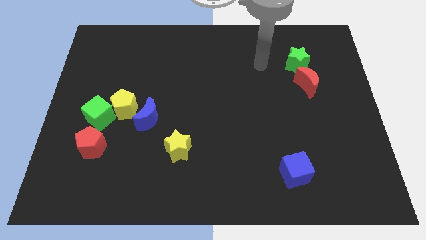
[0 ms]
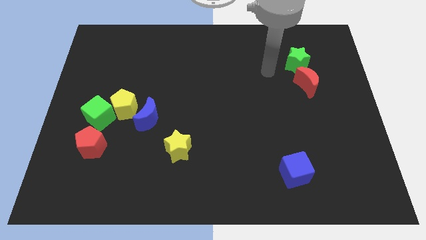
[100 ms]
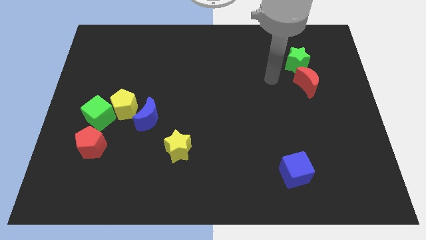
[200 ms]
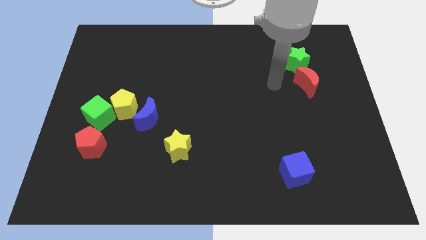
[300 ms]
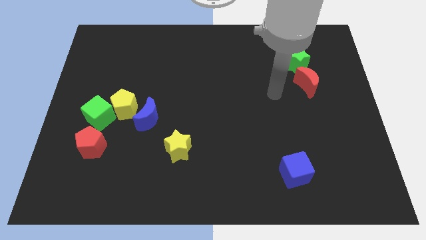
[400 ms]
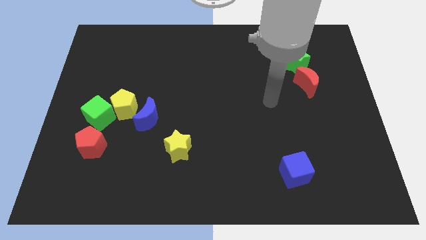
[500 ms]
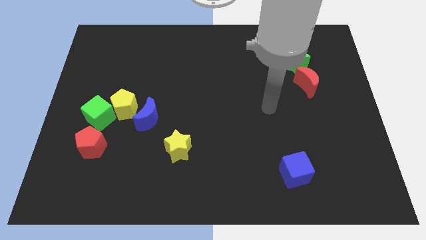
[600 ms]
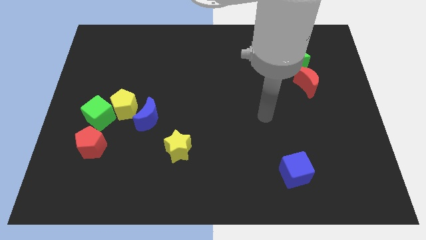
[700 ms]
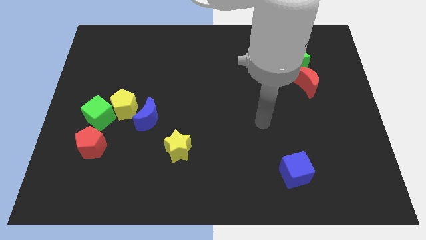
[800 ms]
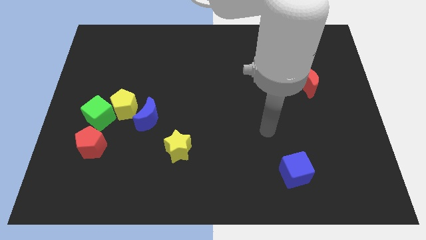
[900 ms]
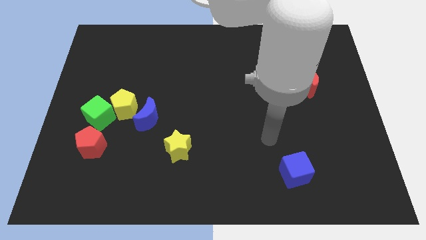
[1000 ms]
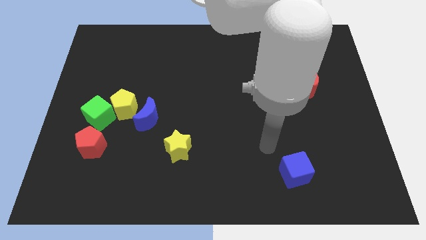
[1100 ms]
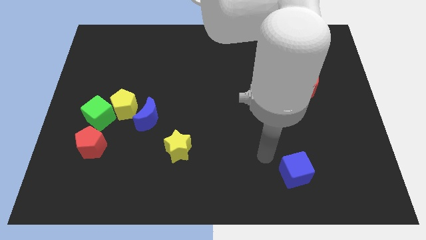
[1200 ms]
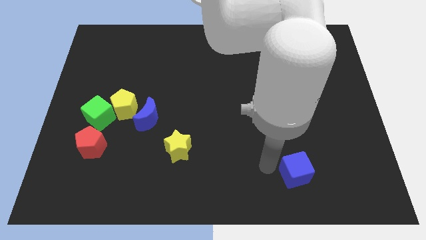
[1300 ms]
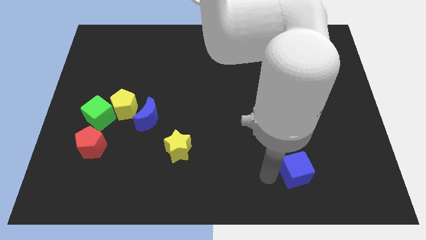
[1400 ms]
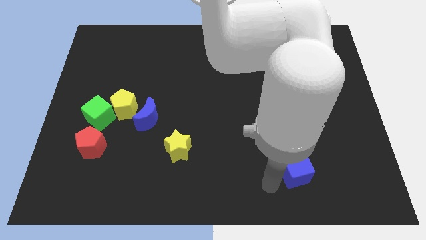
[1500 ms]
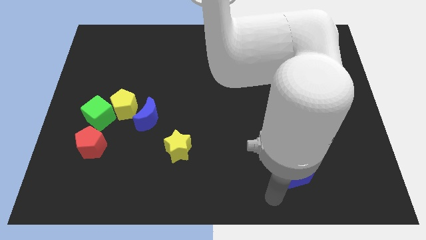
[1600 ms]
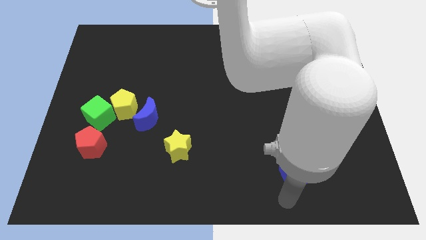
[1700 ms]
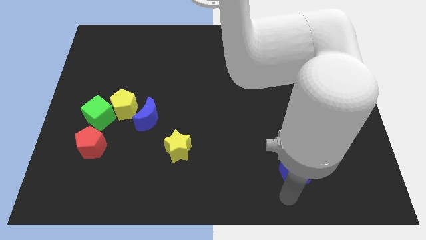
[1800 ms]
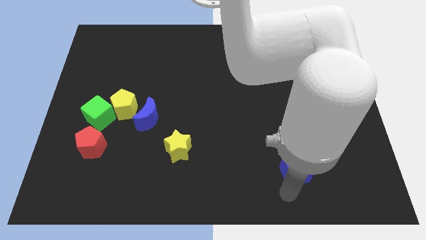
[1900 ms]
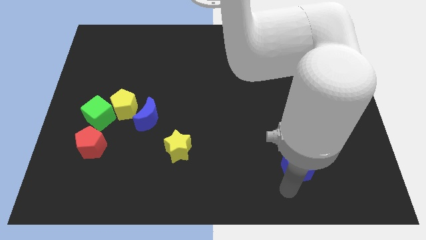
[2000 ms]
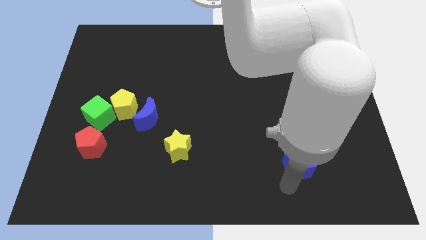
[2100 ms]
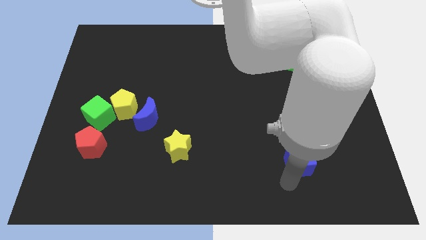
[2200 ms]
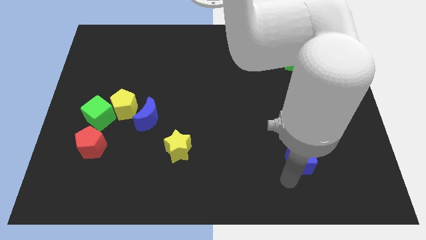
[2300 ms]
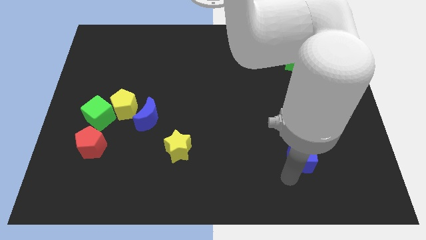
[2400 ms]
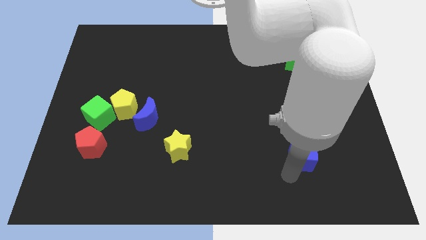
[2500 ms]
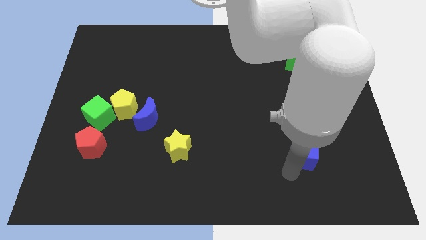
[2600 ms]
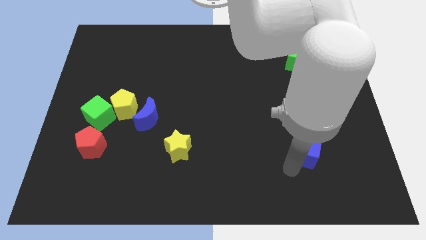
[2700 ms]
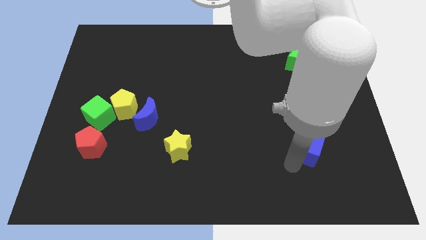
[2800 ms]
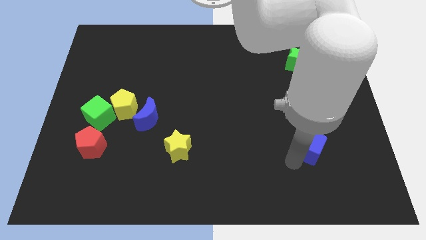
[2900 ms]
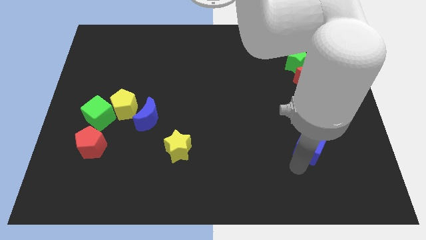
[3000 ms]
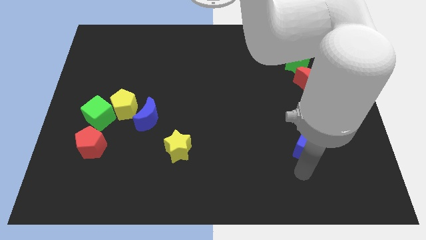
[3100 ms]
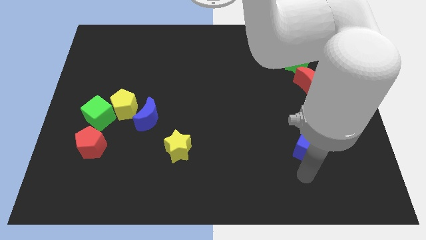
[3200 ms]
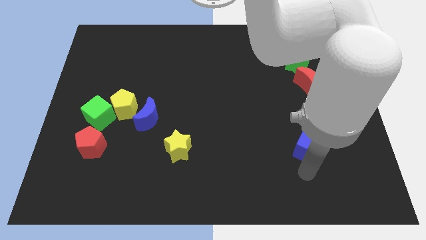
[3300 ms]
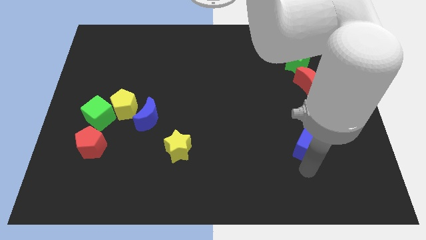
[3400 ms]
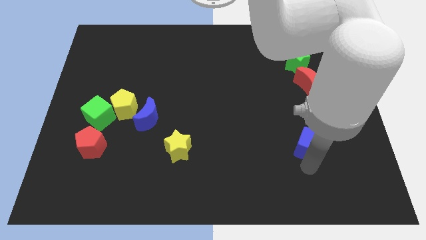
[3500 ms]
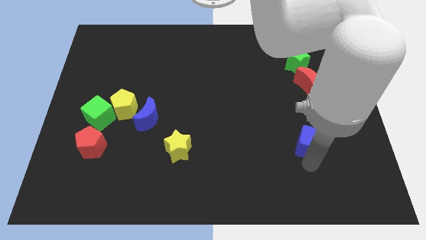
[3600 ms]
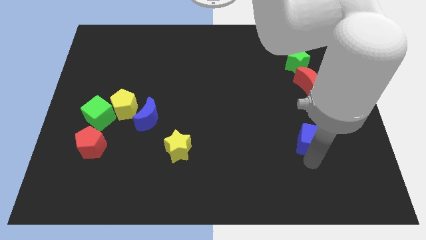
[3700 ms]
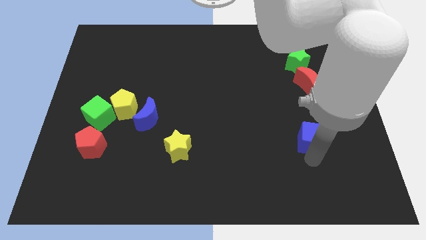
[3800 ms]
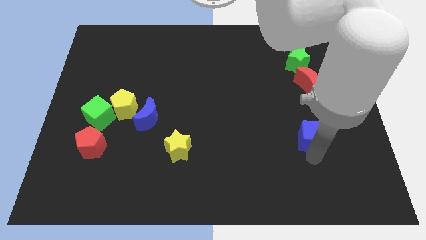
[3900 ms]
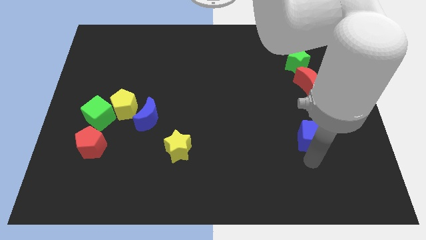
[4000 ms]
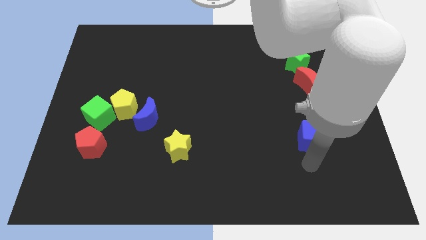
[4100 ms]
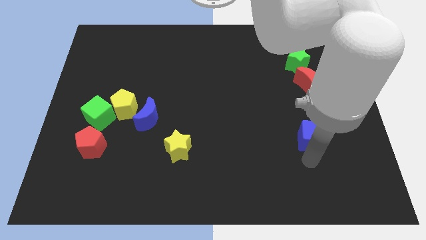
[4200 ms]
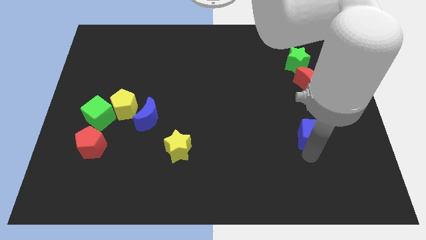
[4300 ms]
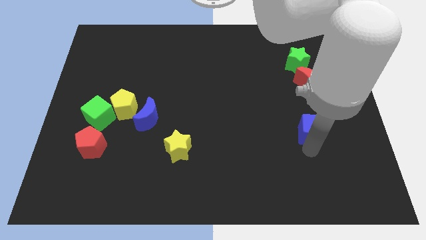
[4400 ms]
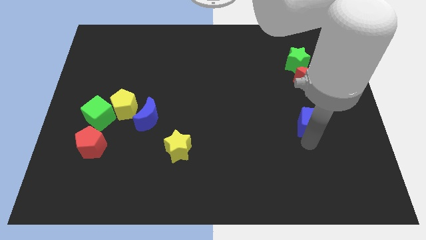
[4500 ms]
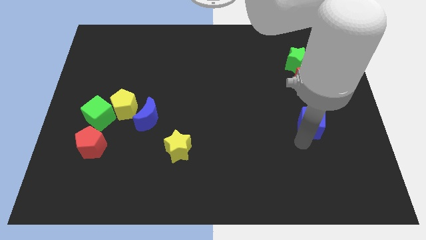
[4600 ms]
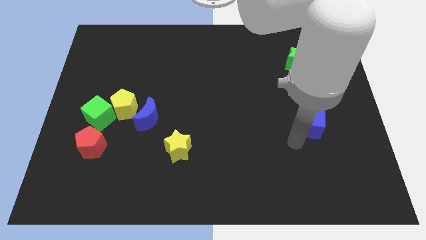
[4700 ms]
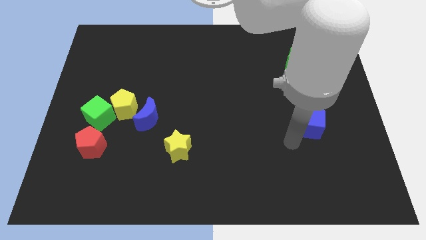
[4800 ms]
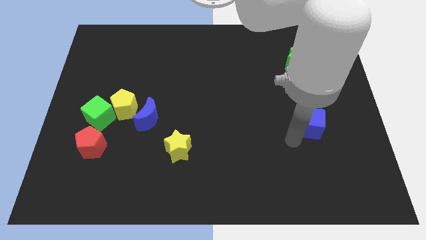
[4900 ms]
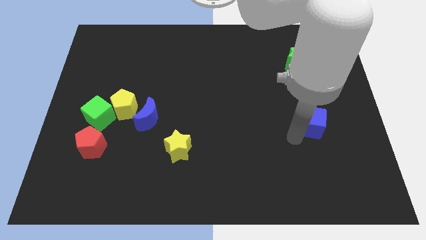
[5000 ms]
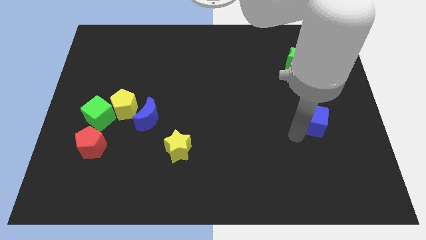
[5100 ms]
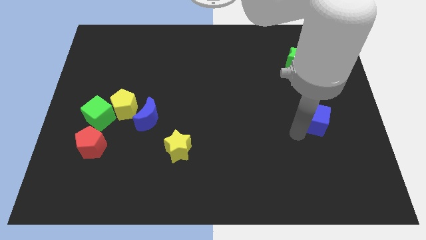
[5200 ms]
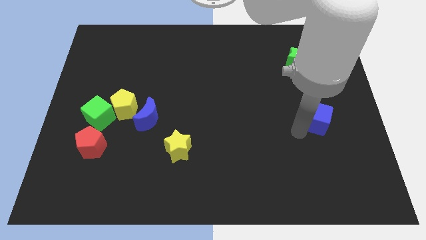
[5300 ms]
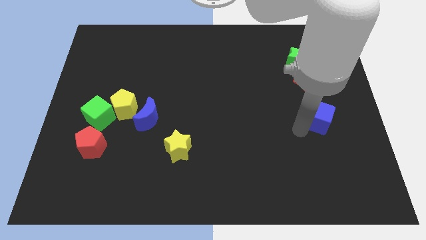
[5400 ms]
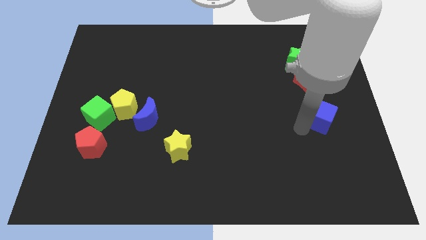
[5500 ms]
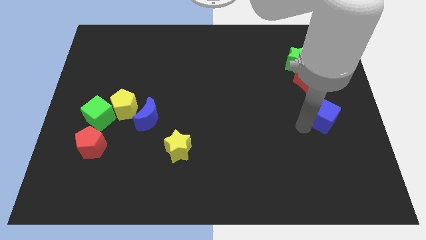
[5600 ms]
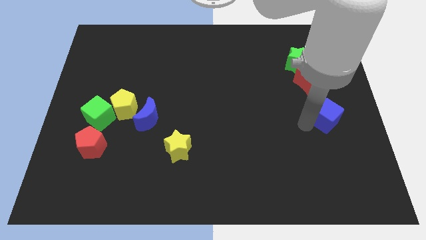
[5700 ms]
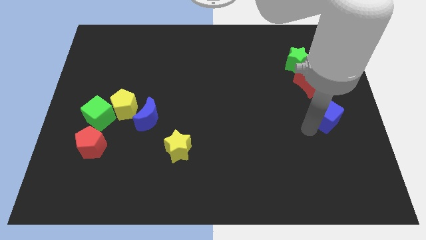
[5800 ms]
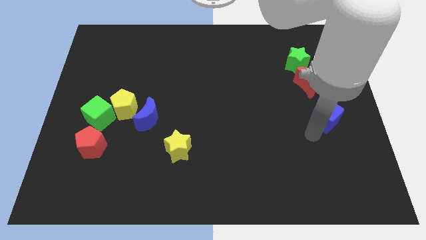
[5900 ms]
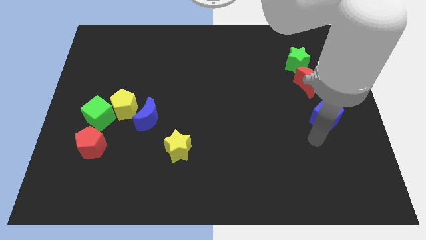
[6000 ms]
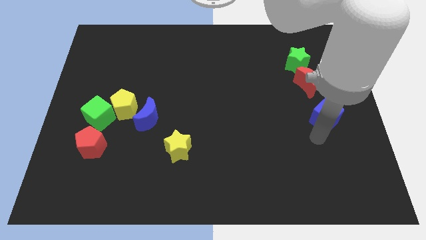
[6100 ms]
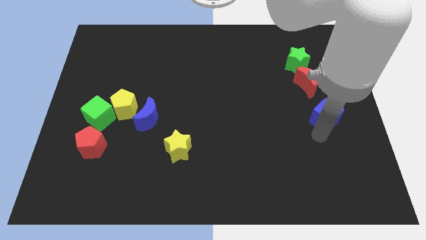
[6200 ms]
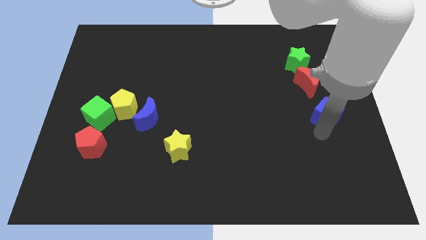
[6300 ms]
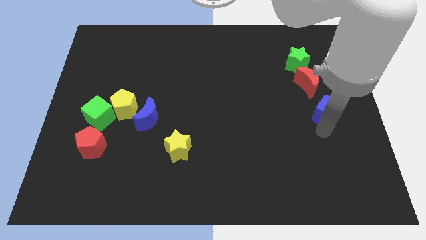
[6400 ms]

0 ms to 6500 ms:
slide the blue cube diagonally down and to the right of the red moon

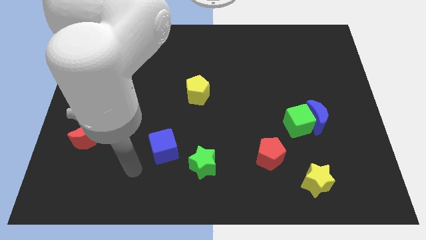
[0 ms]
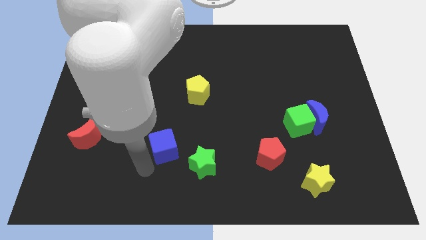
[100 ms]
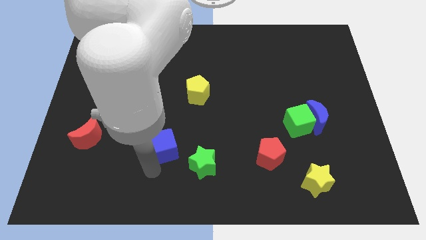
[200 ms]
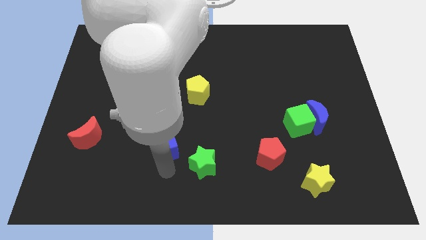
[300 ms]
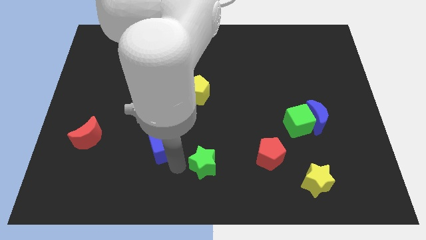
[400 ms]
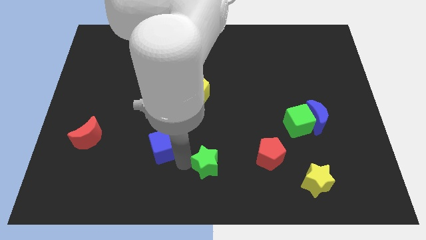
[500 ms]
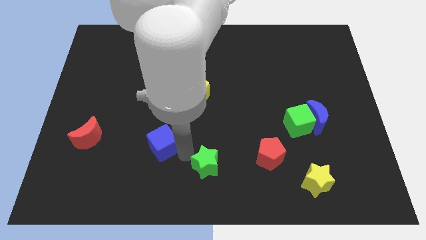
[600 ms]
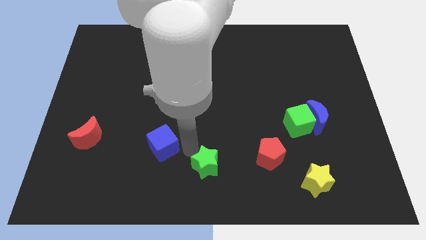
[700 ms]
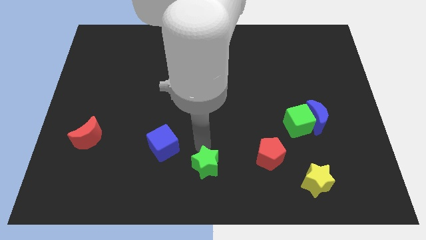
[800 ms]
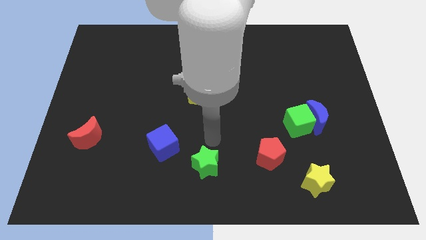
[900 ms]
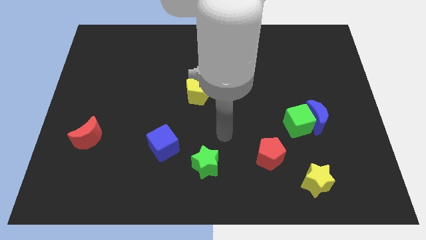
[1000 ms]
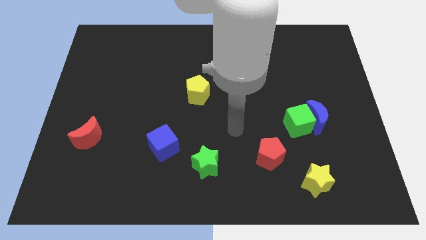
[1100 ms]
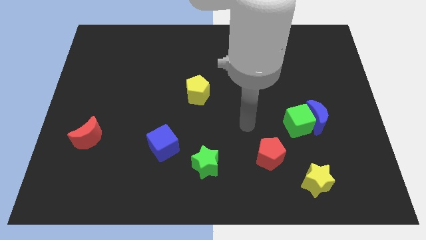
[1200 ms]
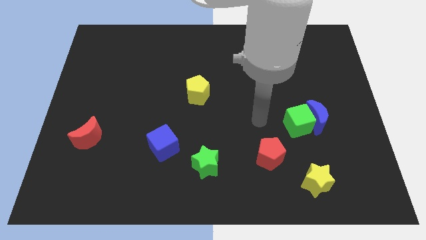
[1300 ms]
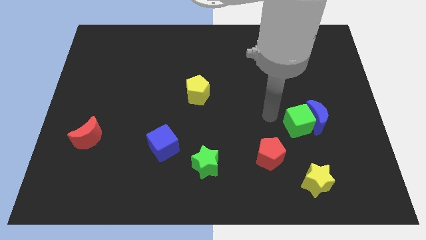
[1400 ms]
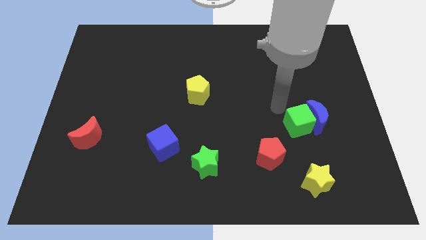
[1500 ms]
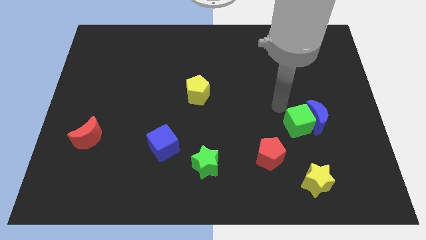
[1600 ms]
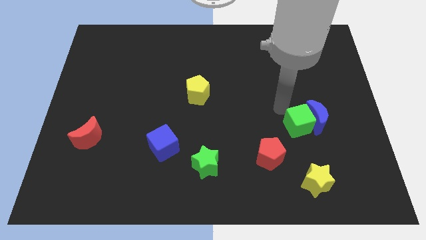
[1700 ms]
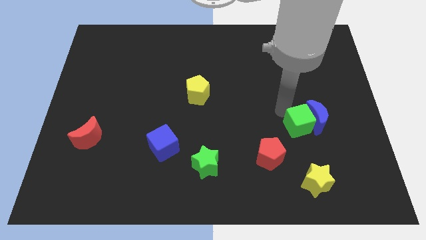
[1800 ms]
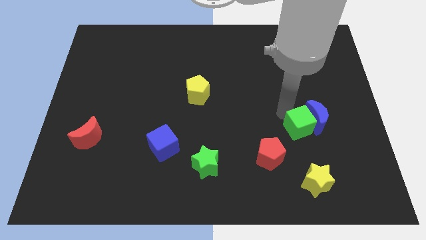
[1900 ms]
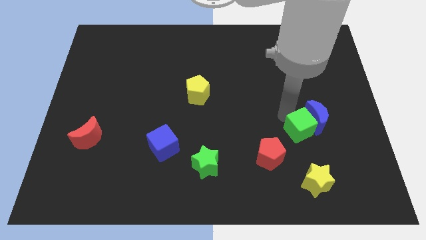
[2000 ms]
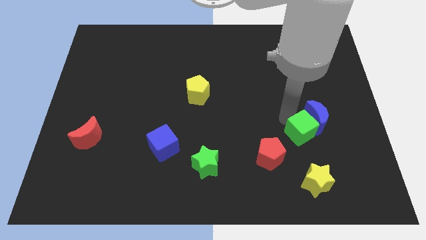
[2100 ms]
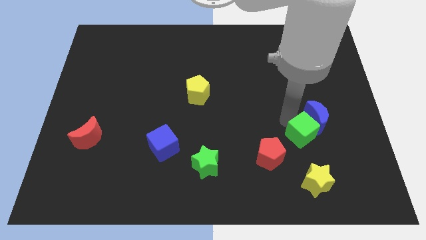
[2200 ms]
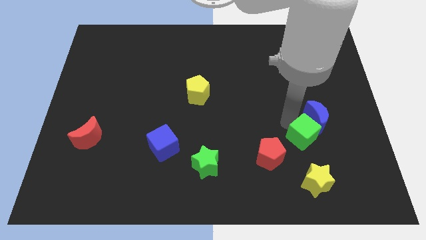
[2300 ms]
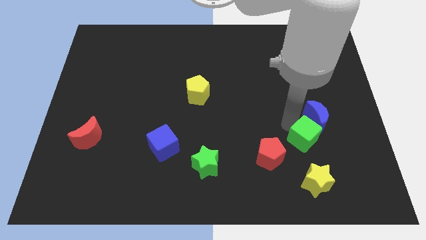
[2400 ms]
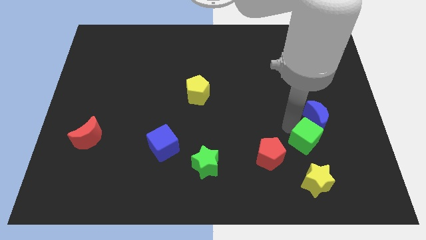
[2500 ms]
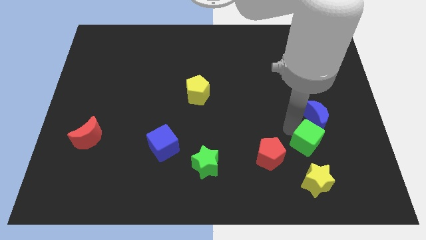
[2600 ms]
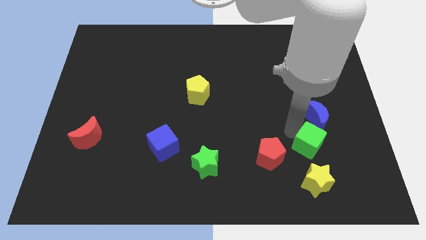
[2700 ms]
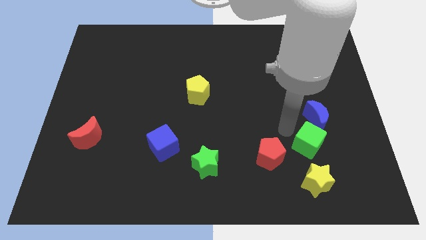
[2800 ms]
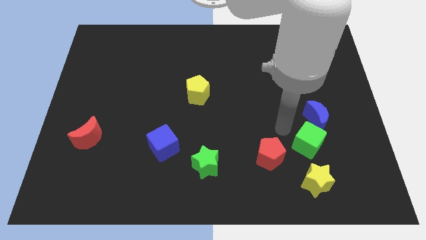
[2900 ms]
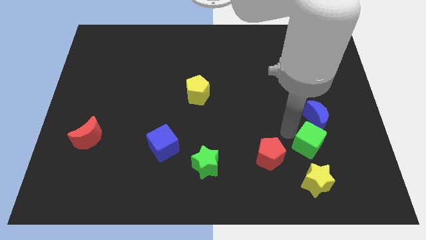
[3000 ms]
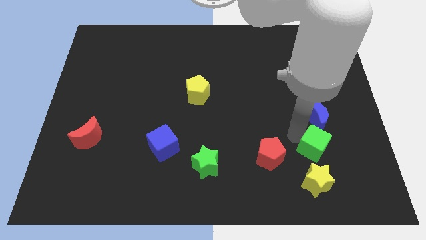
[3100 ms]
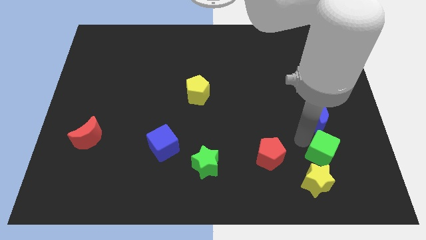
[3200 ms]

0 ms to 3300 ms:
slide the green cube diagonally up and to the right of the yellow star
